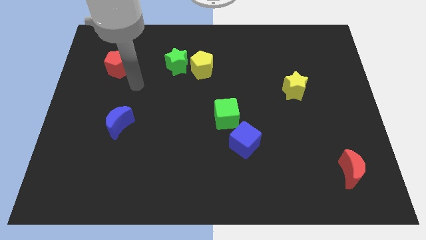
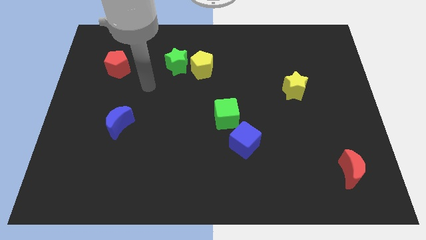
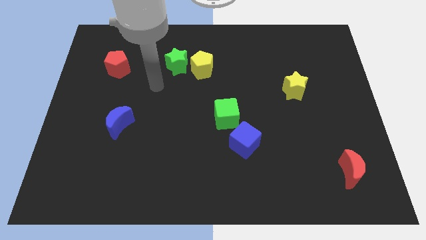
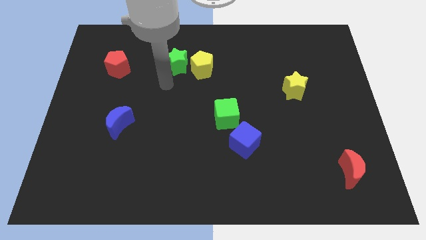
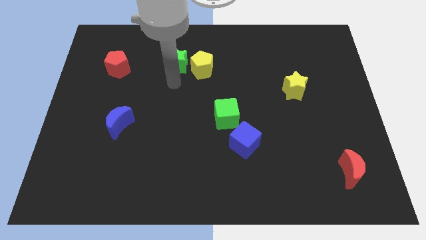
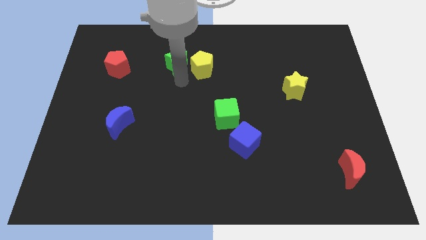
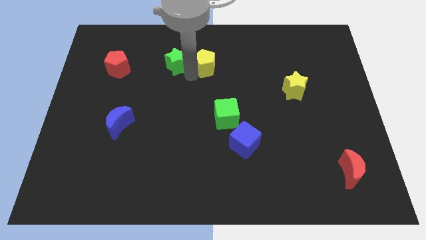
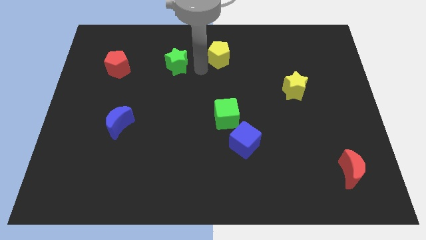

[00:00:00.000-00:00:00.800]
pull the green star apart from the yellow pentagon

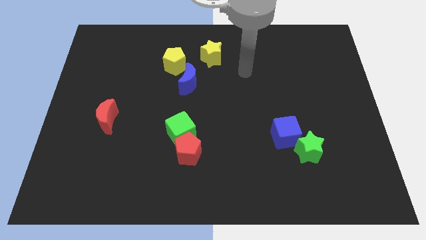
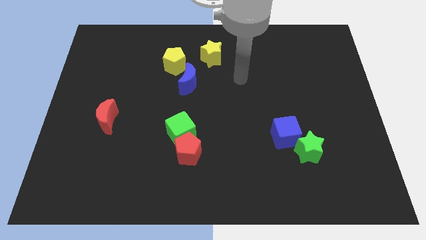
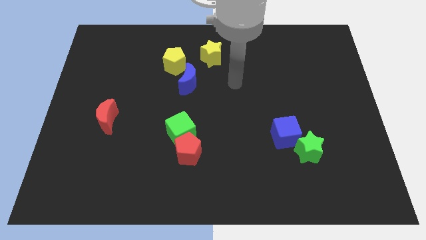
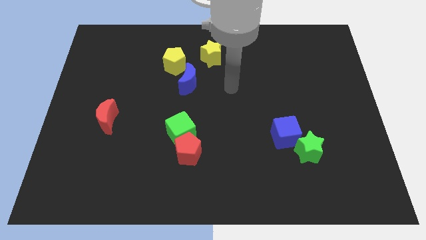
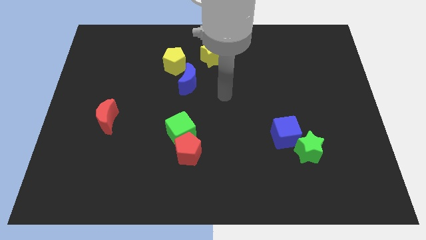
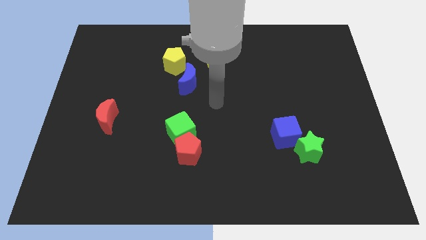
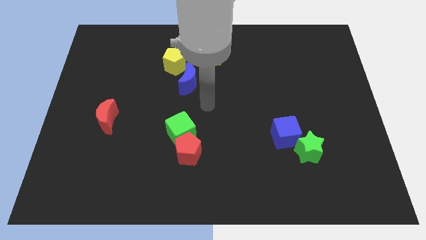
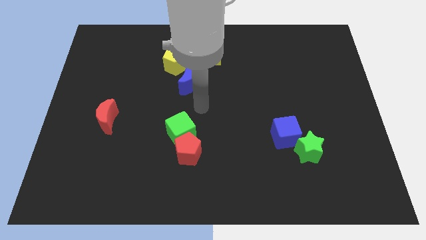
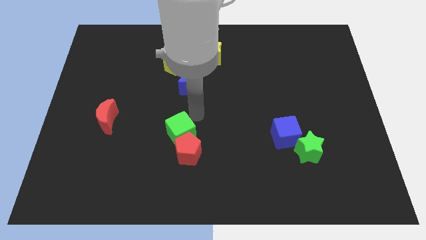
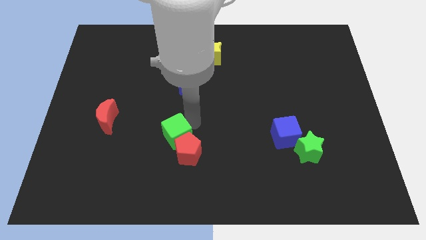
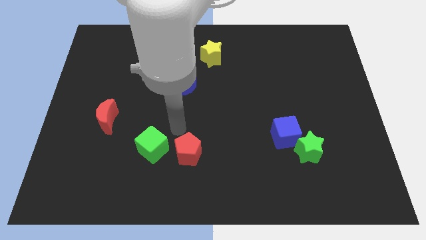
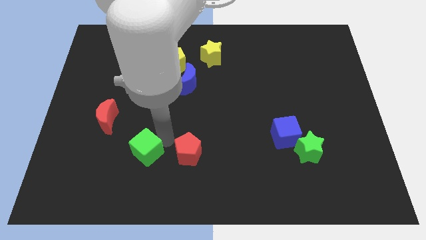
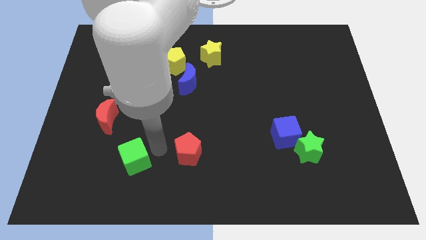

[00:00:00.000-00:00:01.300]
pull the red pentagon apart from the green cube

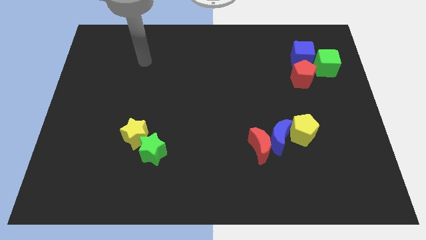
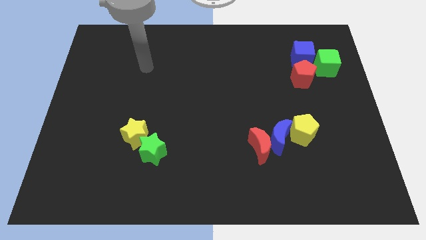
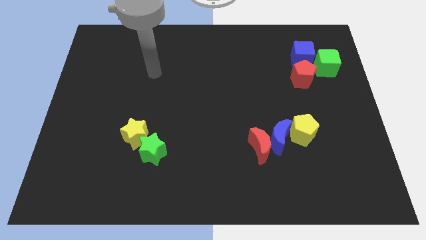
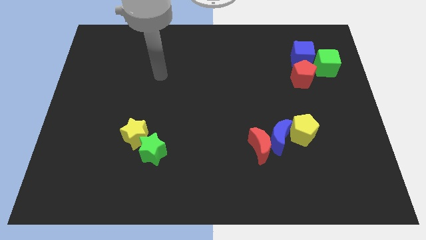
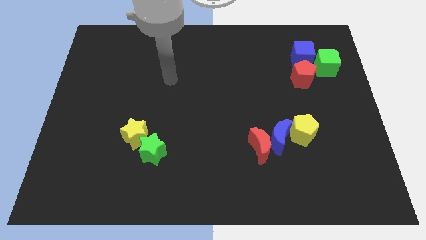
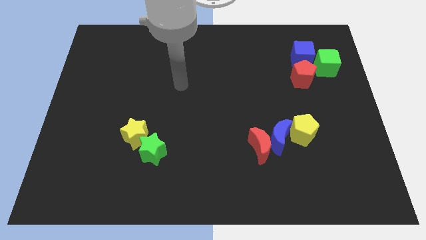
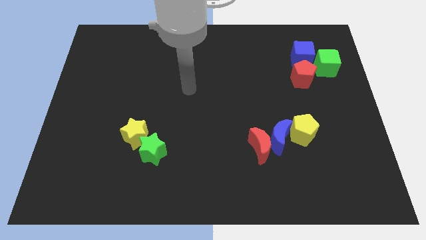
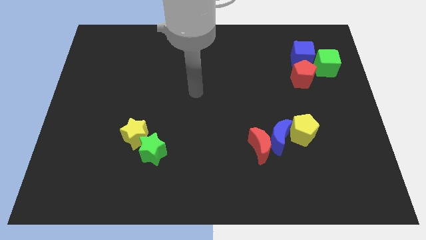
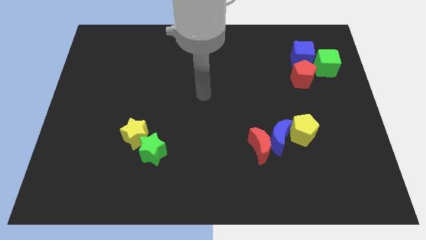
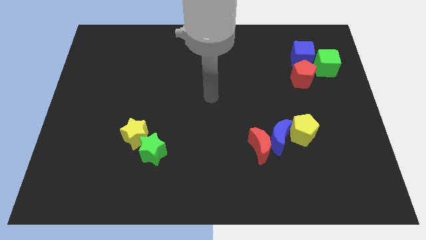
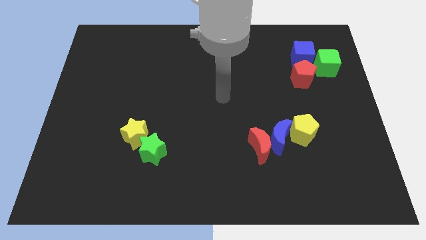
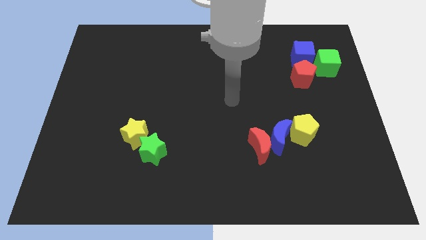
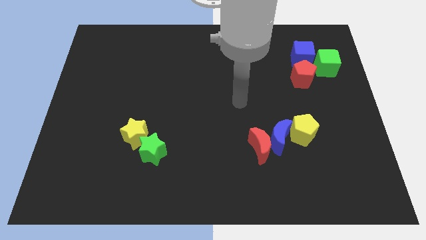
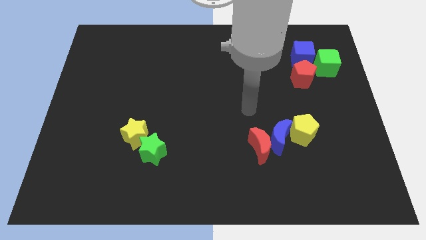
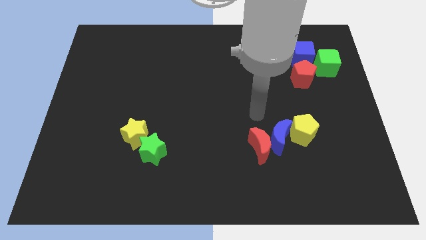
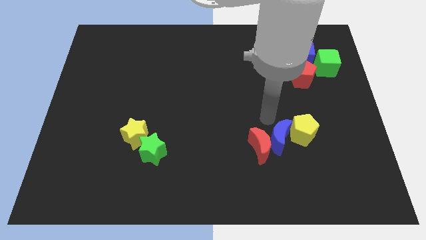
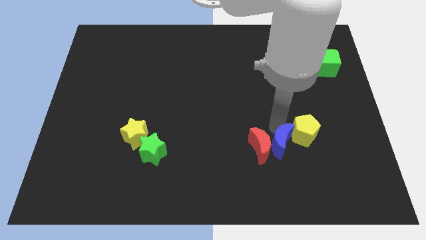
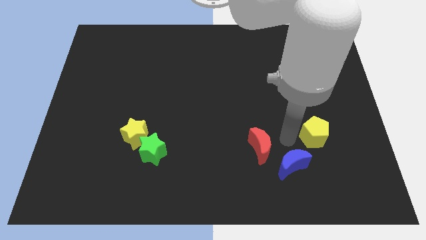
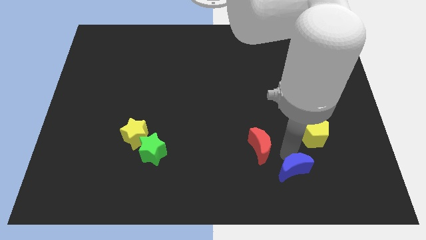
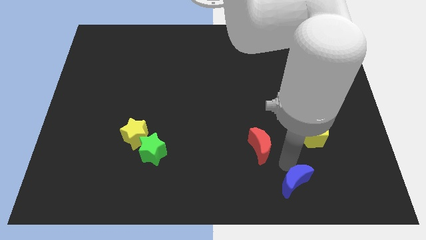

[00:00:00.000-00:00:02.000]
separate the red moon from the blue moon

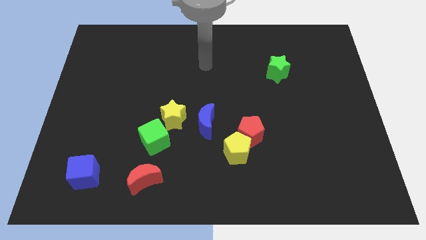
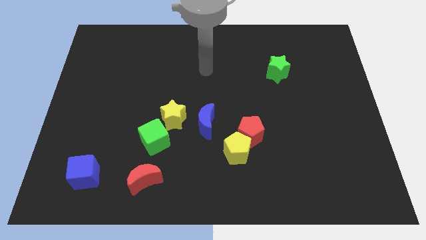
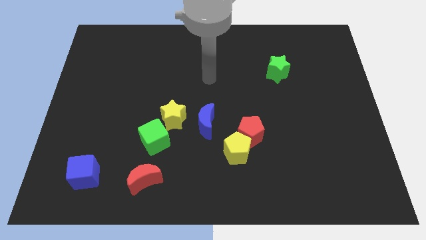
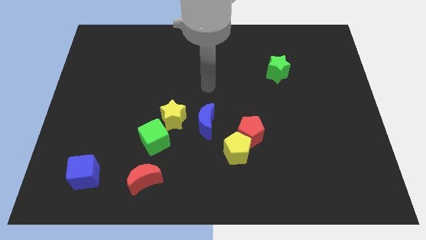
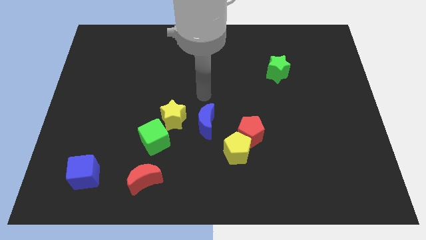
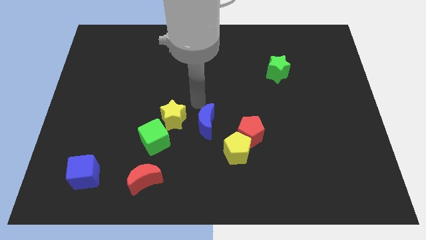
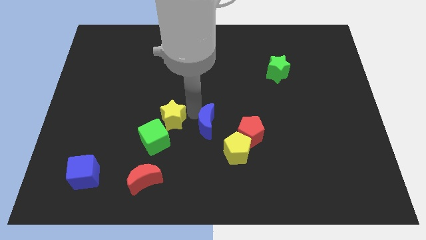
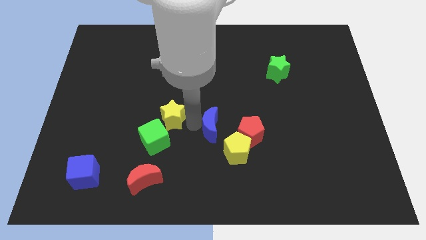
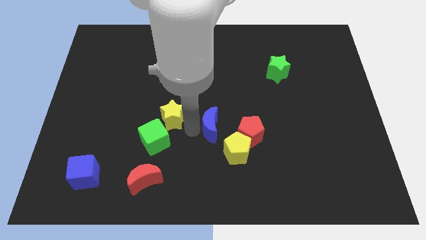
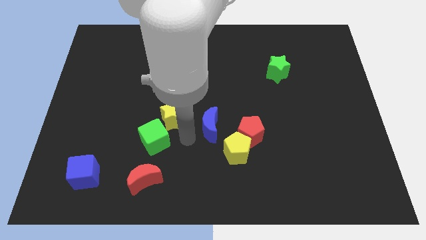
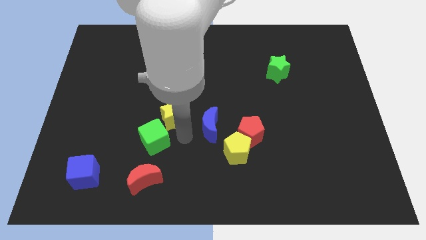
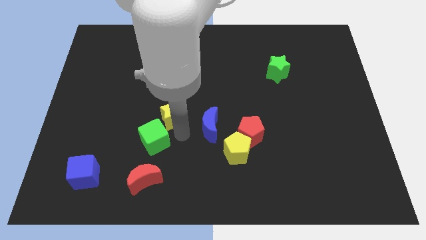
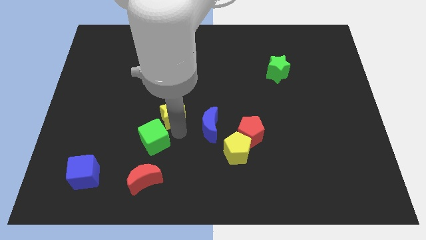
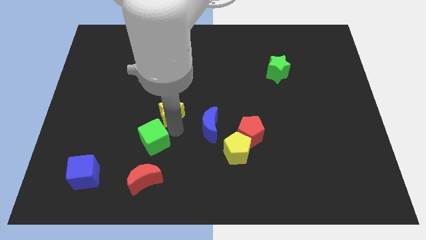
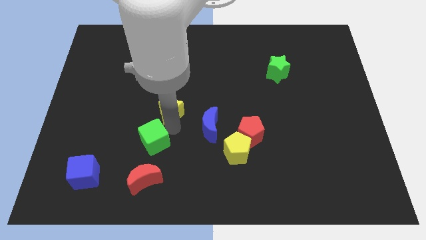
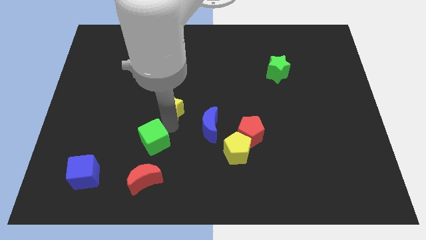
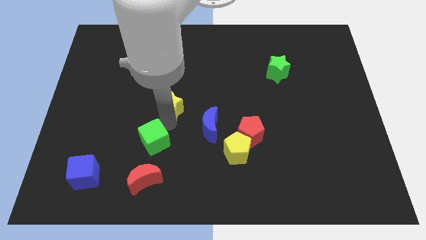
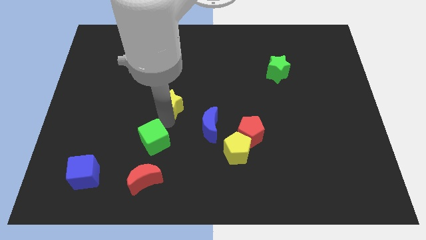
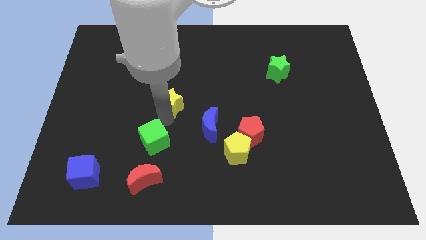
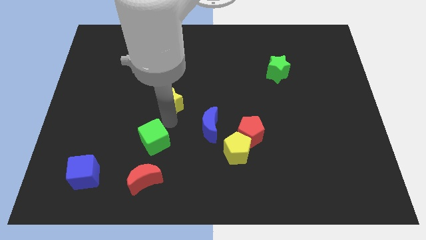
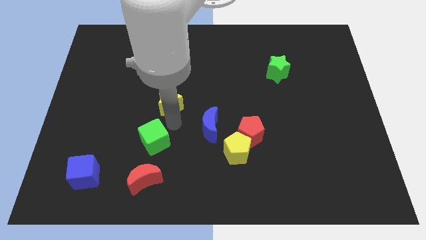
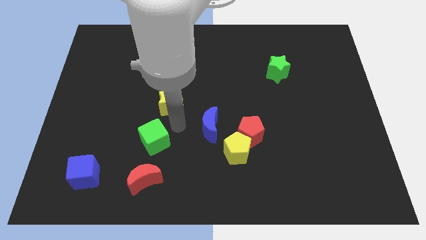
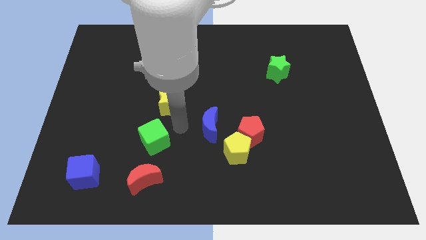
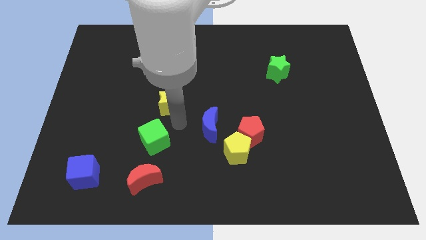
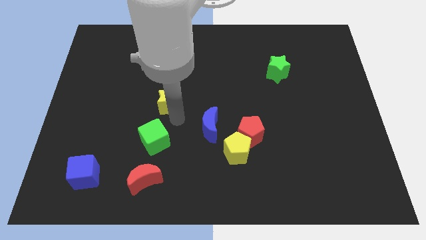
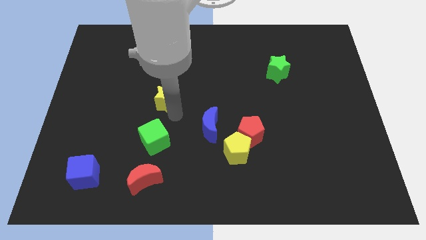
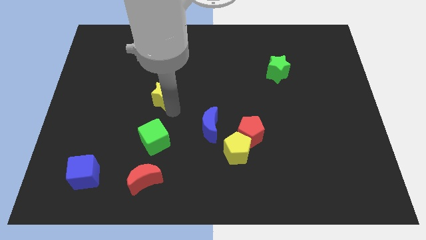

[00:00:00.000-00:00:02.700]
pull the yellow star apart from the green cube and blue moon

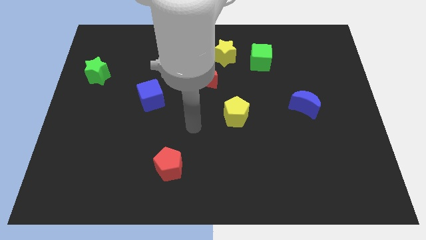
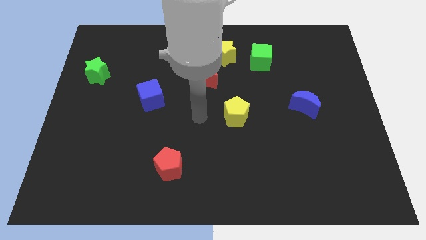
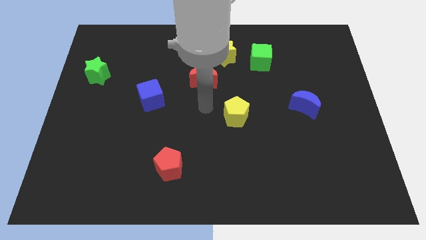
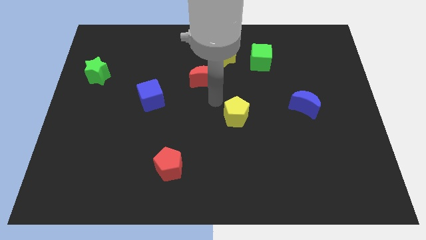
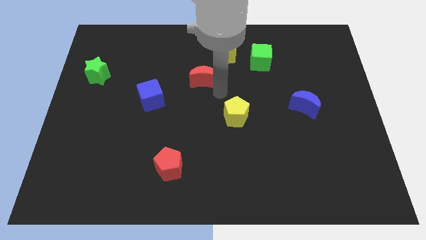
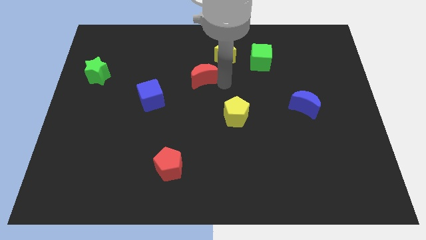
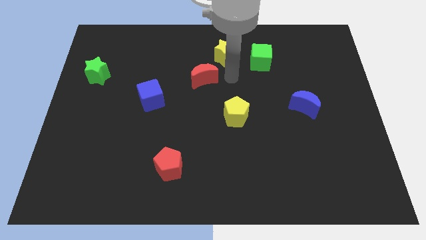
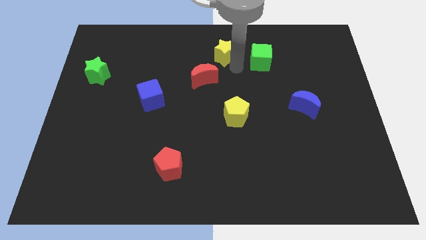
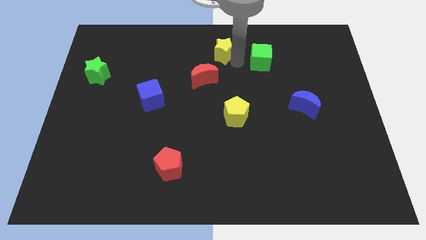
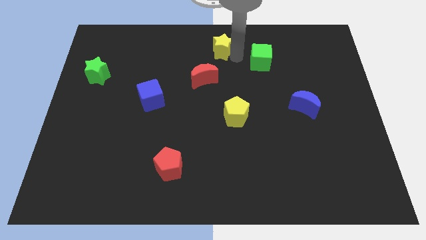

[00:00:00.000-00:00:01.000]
separate the green cube from the yellow star

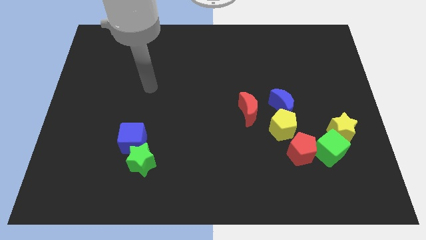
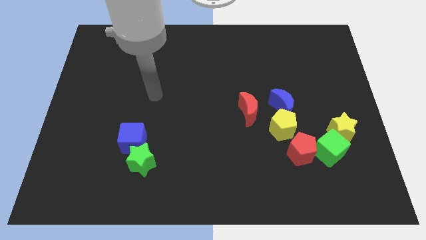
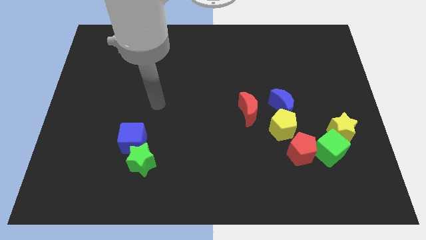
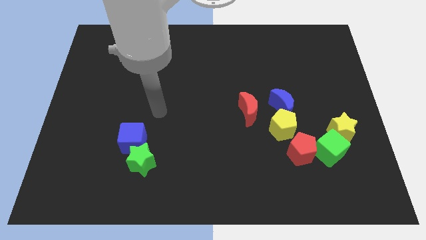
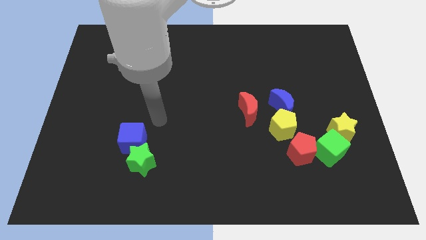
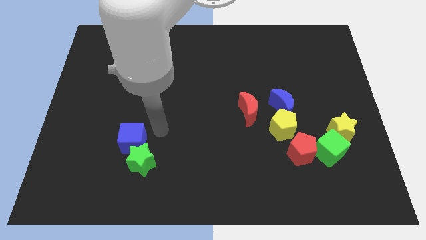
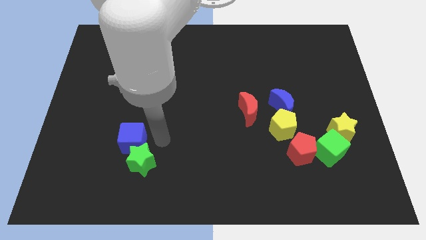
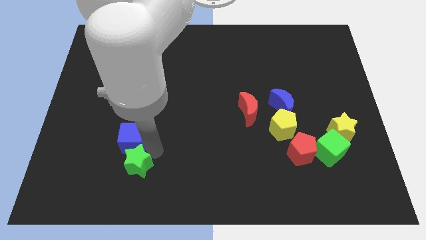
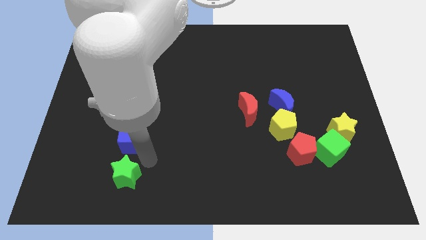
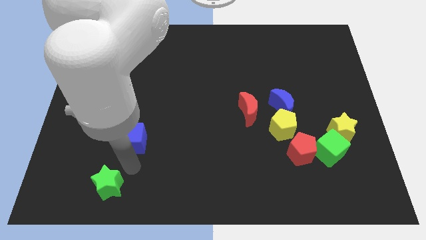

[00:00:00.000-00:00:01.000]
separate the blue cube from the green star

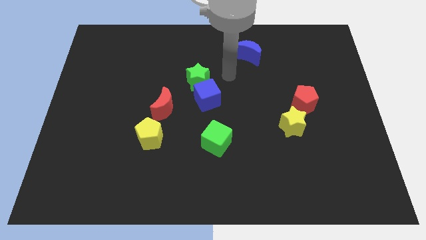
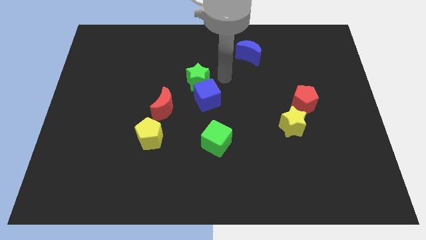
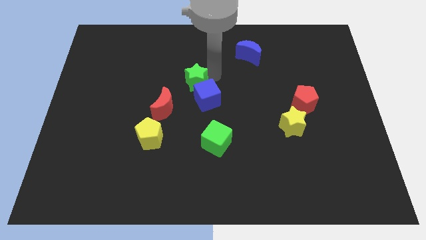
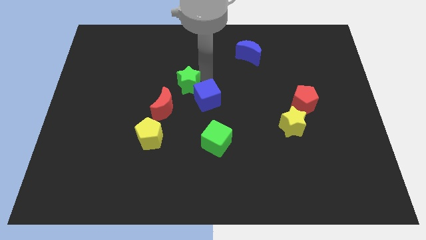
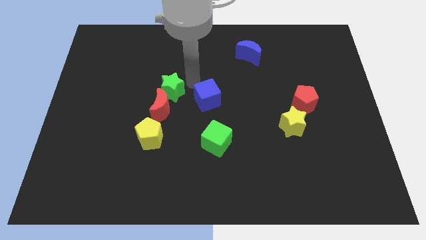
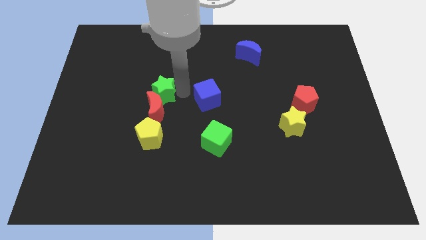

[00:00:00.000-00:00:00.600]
pull the blue cube apart from the green star

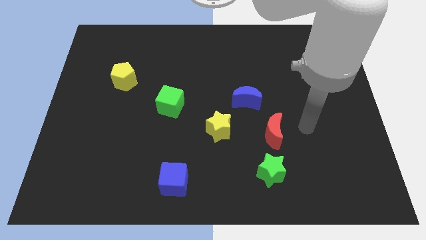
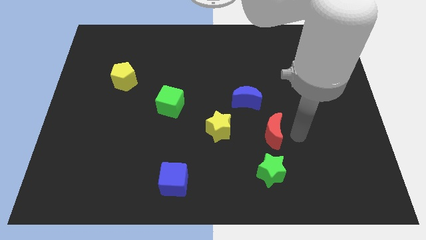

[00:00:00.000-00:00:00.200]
move the red moon away from the green star
